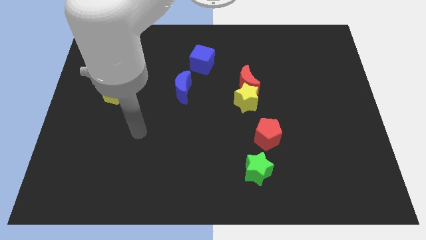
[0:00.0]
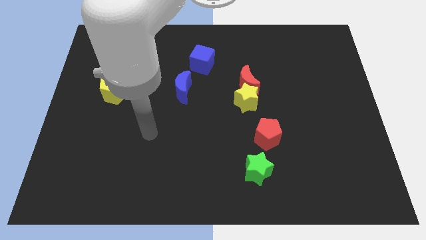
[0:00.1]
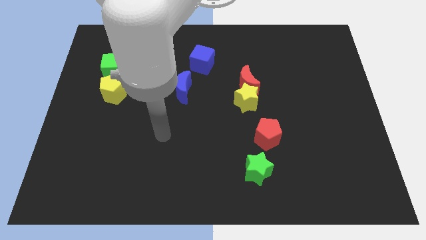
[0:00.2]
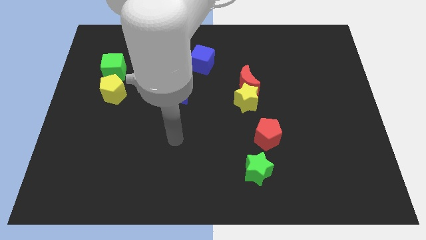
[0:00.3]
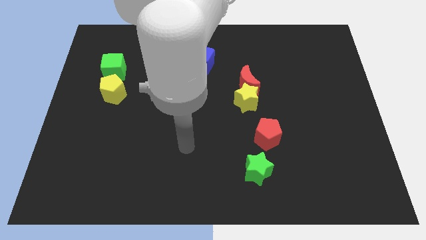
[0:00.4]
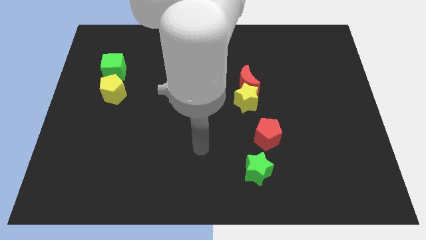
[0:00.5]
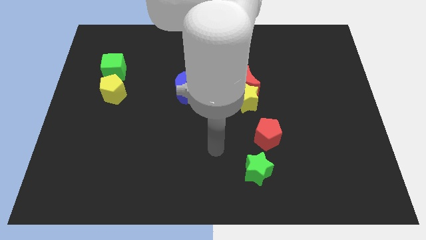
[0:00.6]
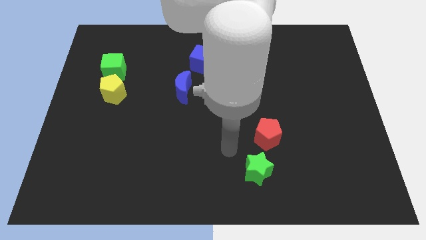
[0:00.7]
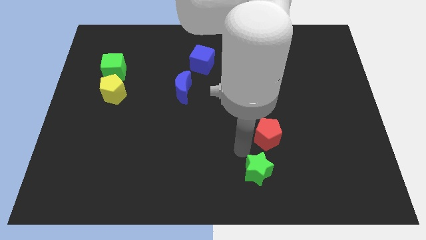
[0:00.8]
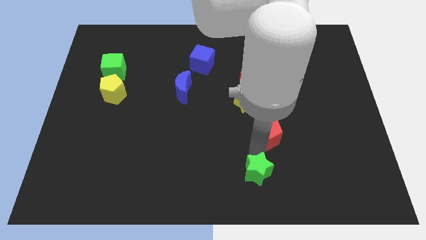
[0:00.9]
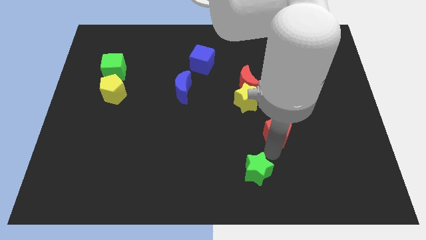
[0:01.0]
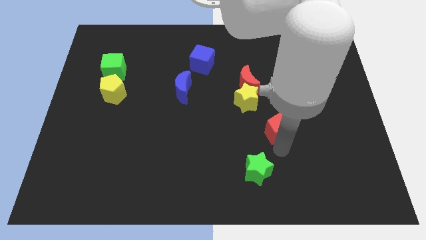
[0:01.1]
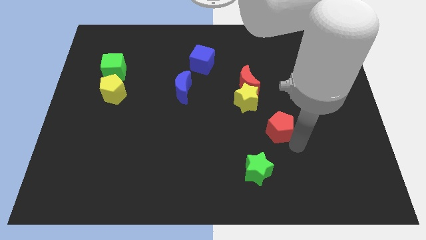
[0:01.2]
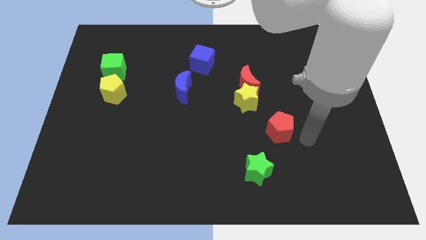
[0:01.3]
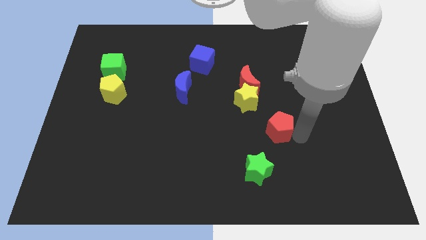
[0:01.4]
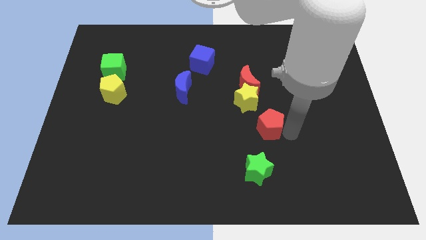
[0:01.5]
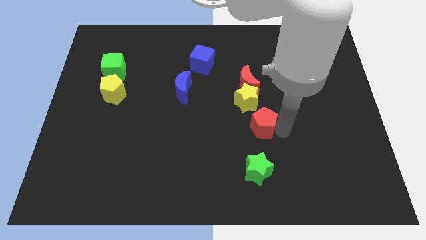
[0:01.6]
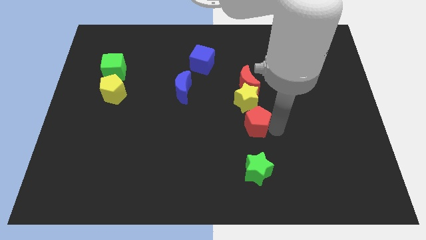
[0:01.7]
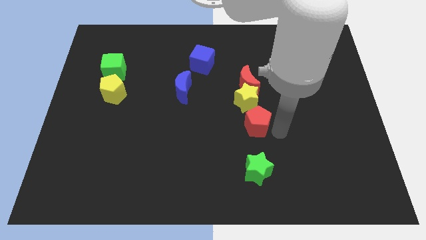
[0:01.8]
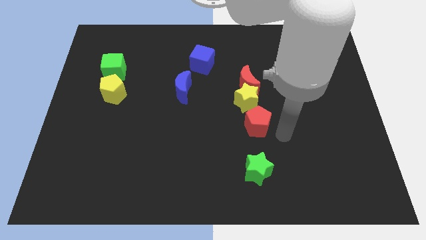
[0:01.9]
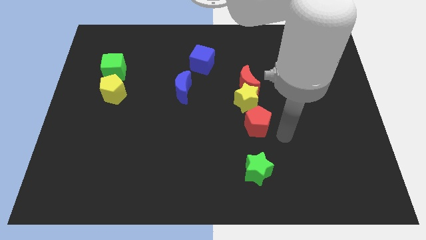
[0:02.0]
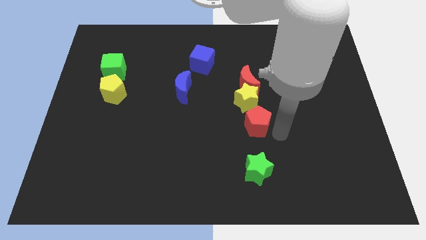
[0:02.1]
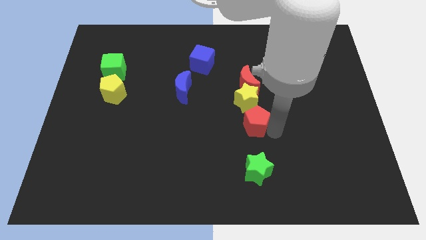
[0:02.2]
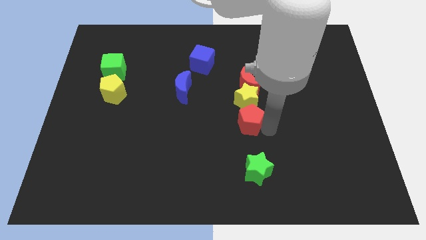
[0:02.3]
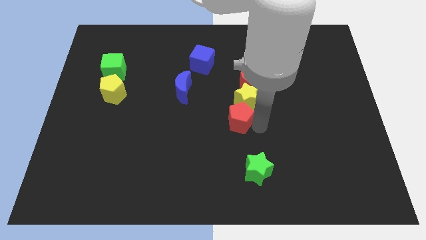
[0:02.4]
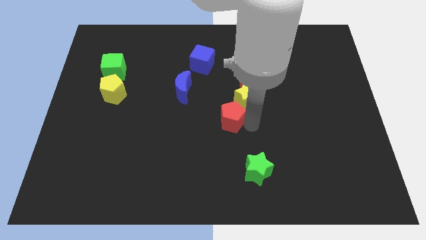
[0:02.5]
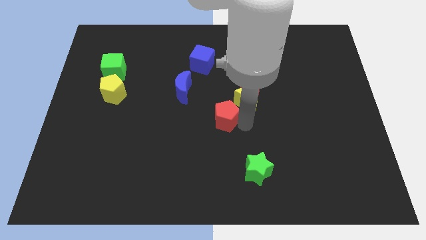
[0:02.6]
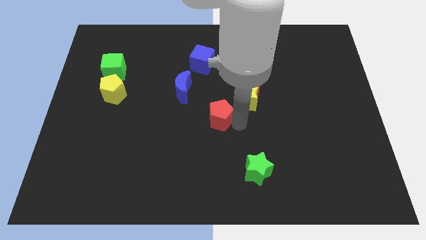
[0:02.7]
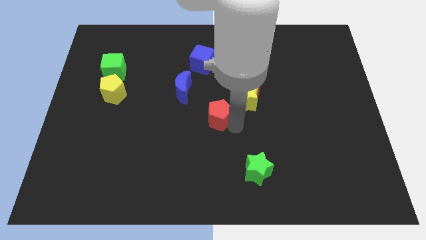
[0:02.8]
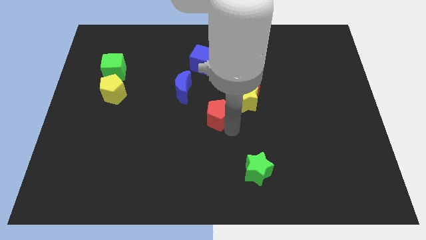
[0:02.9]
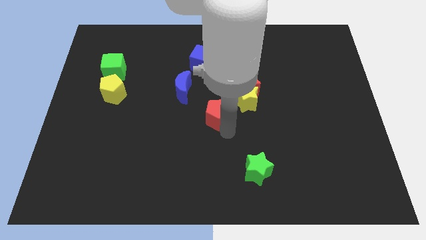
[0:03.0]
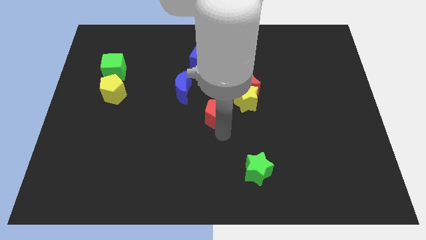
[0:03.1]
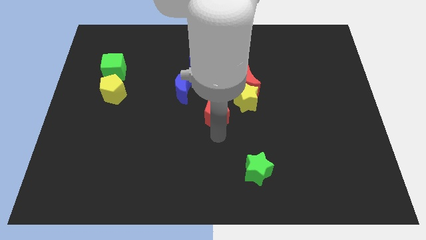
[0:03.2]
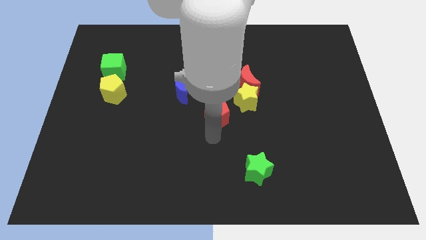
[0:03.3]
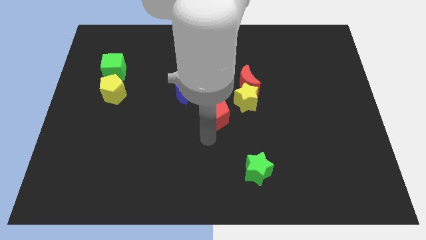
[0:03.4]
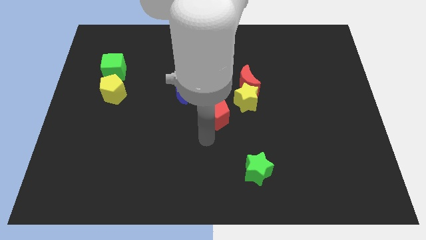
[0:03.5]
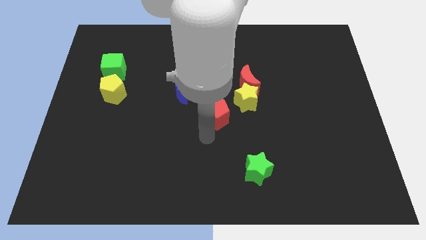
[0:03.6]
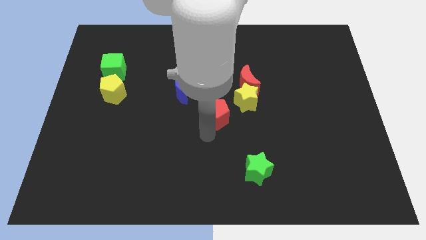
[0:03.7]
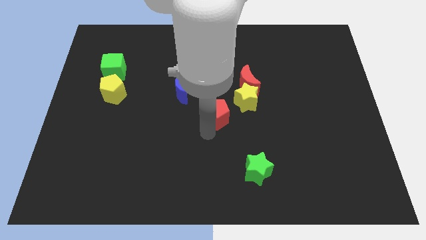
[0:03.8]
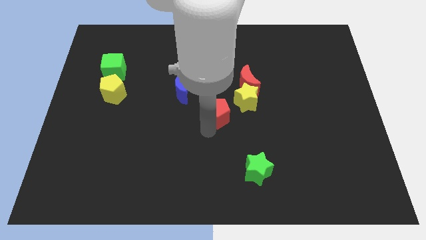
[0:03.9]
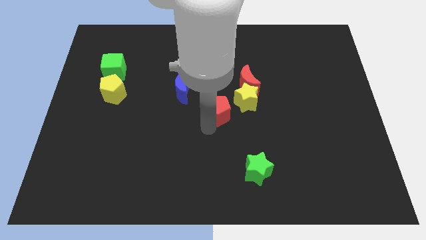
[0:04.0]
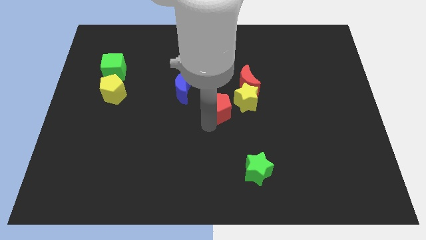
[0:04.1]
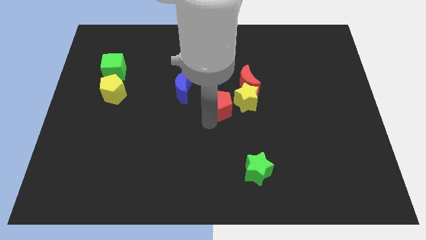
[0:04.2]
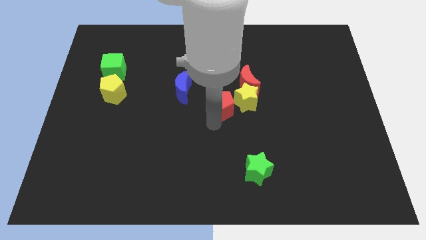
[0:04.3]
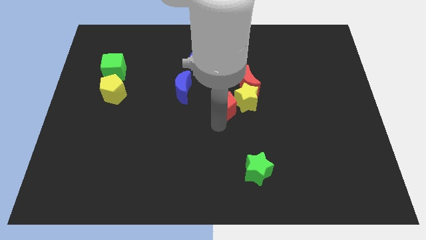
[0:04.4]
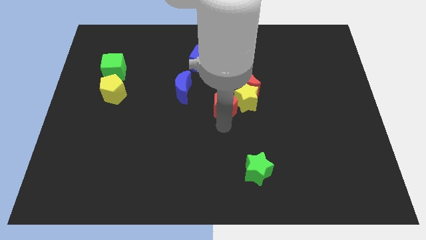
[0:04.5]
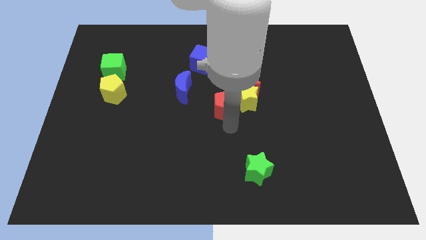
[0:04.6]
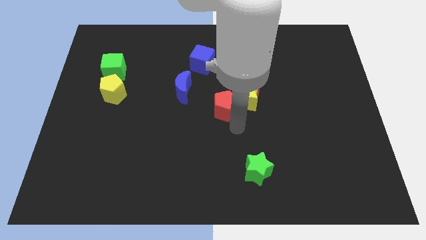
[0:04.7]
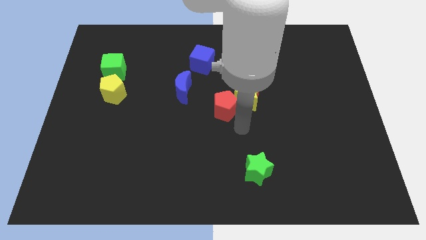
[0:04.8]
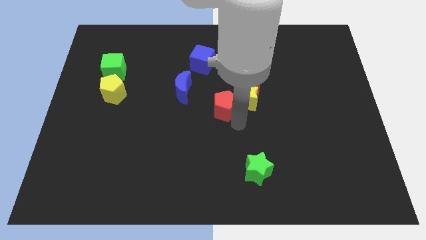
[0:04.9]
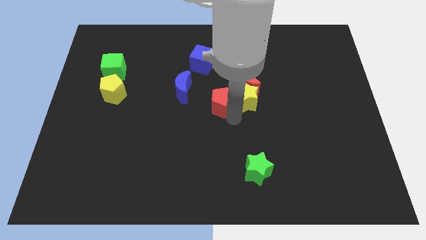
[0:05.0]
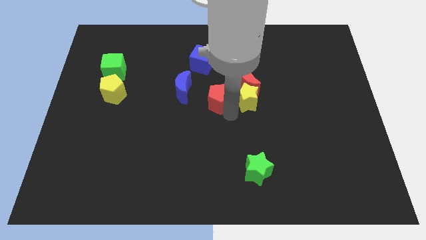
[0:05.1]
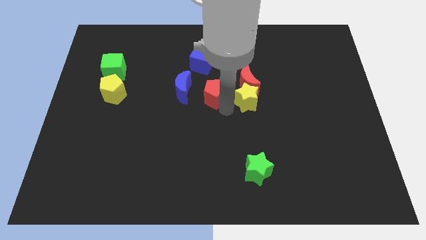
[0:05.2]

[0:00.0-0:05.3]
put the red pentagon just left of the red moon

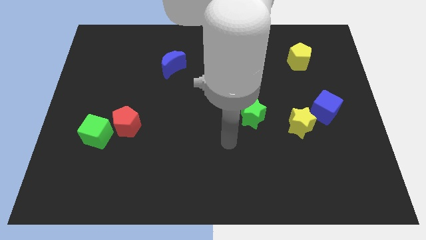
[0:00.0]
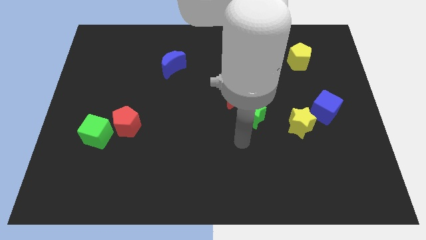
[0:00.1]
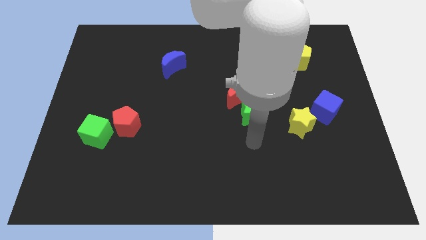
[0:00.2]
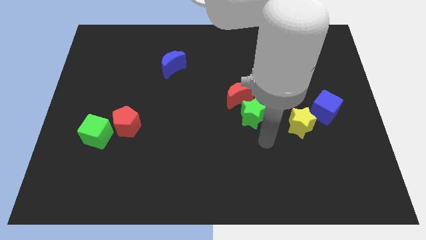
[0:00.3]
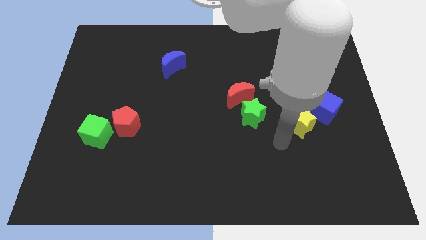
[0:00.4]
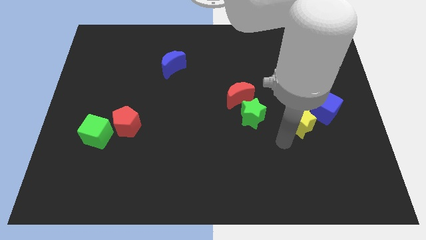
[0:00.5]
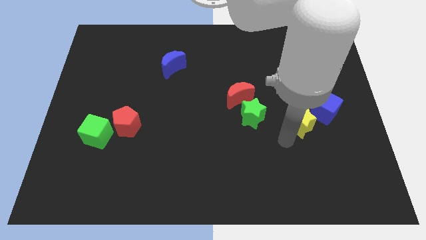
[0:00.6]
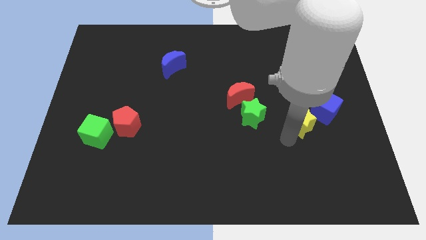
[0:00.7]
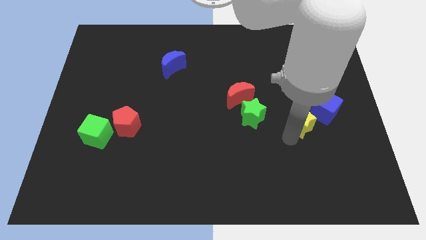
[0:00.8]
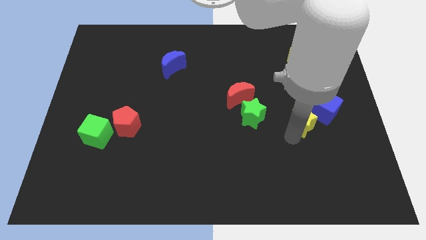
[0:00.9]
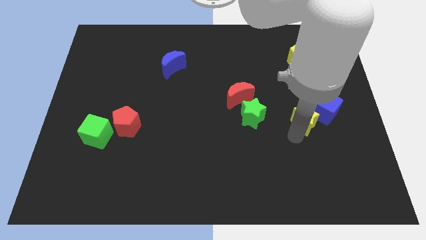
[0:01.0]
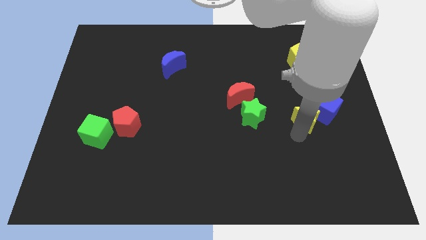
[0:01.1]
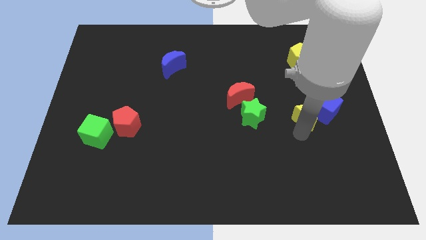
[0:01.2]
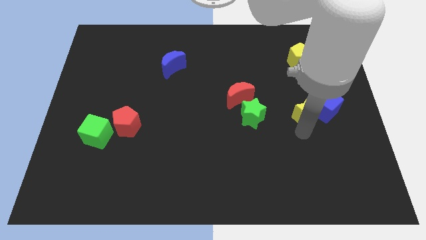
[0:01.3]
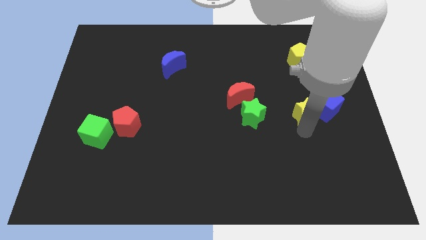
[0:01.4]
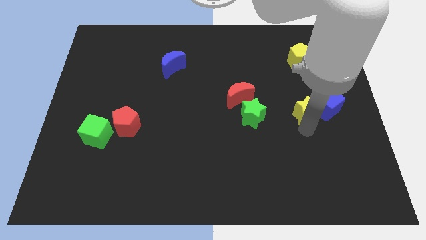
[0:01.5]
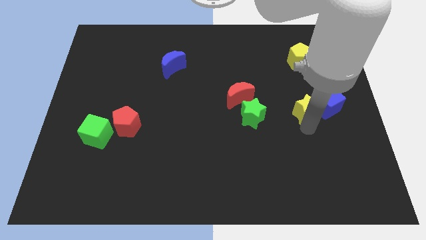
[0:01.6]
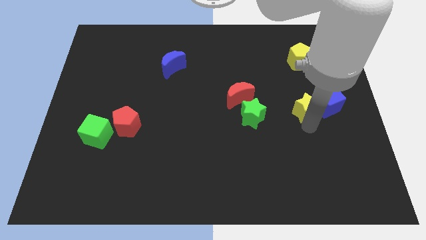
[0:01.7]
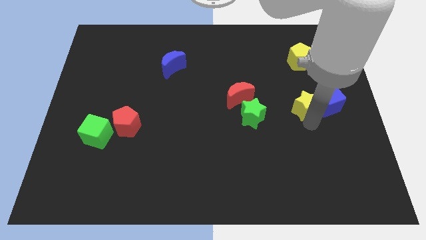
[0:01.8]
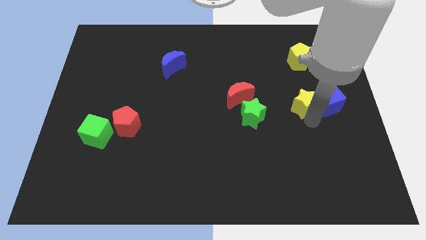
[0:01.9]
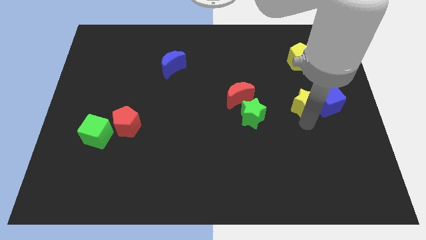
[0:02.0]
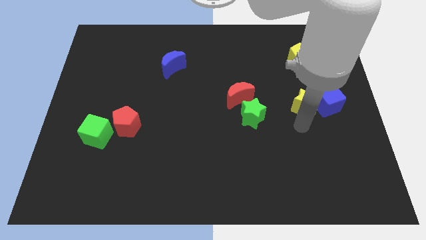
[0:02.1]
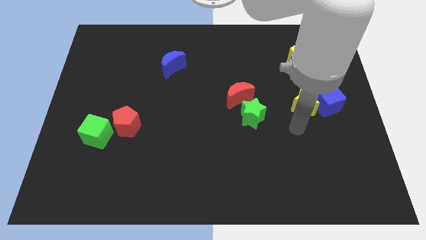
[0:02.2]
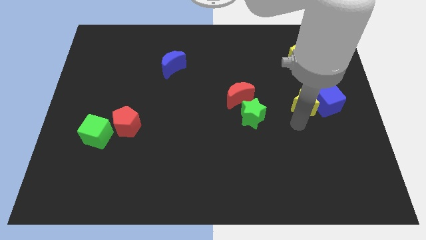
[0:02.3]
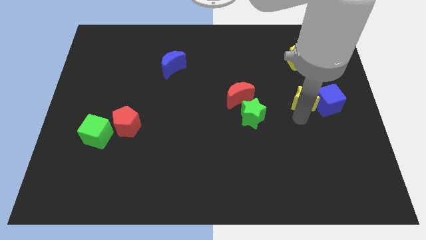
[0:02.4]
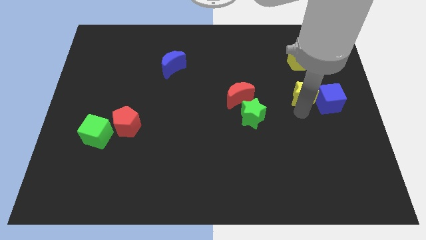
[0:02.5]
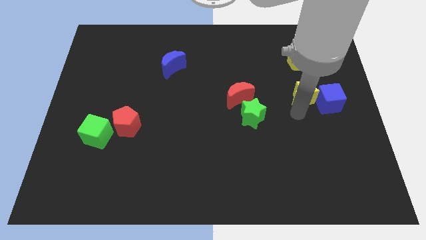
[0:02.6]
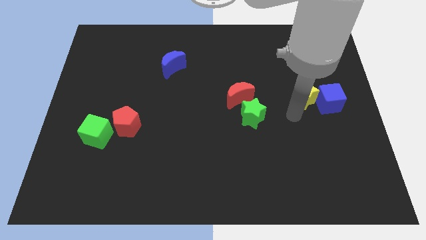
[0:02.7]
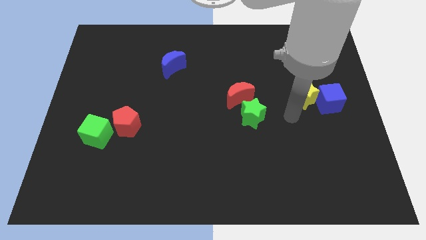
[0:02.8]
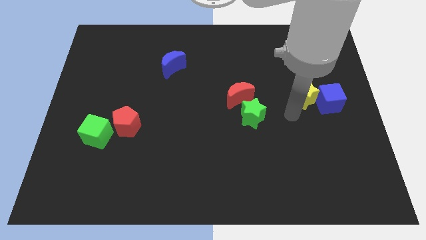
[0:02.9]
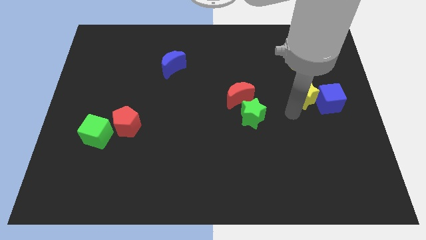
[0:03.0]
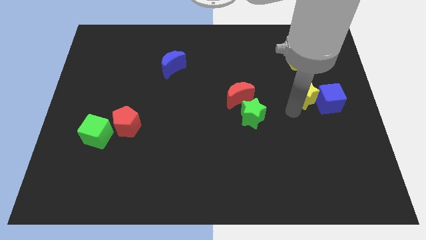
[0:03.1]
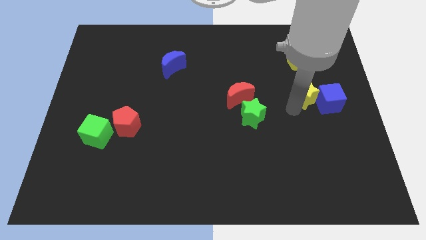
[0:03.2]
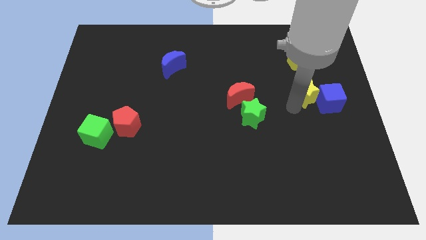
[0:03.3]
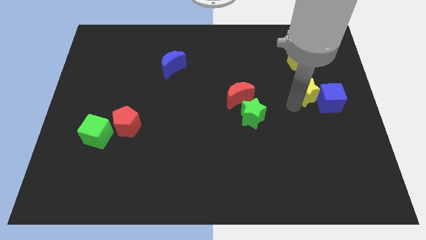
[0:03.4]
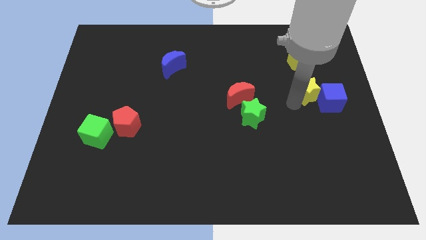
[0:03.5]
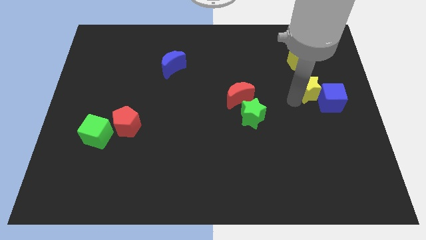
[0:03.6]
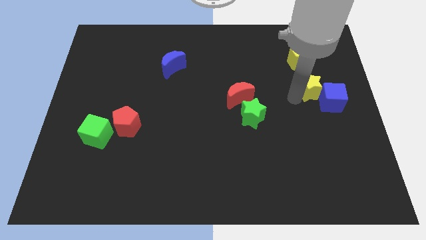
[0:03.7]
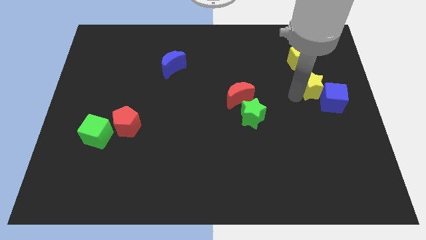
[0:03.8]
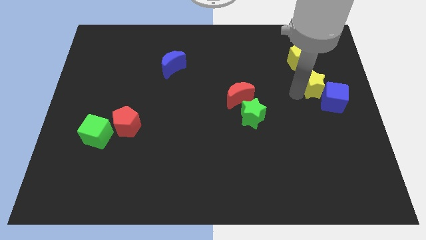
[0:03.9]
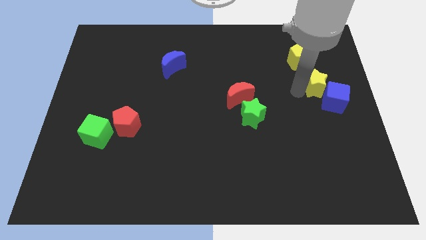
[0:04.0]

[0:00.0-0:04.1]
put the yellow star diagonally down and to the right of the yellow pentagon
